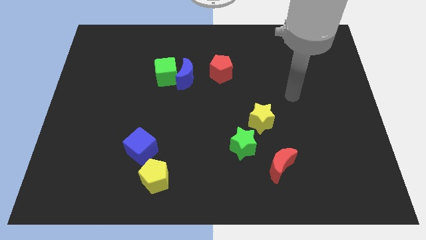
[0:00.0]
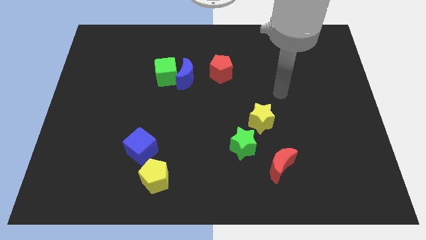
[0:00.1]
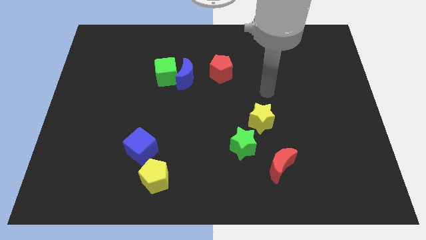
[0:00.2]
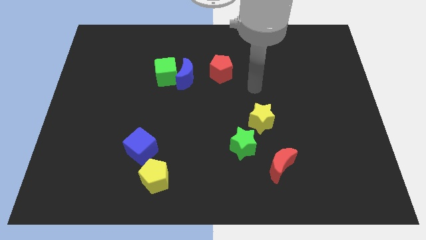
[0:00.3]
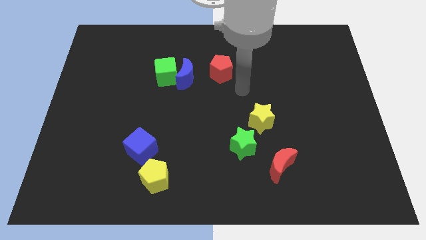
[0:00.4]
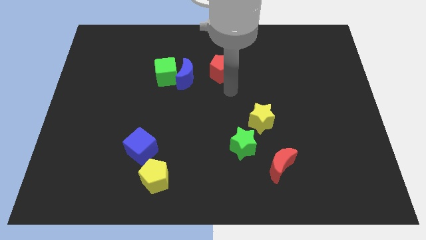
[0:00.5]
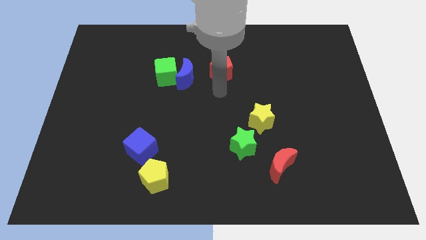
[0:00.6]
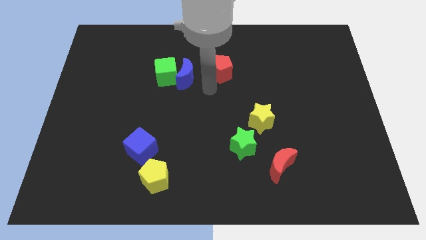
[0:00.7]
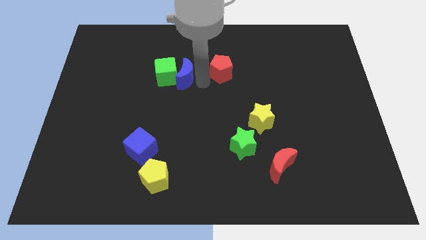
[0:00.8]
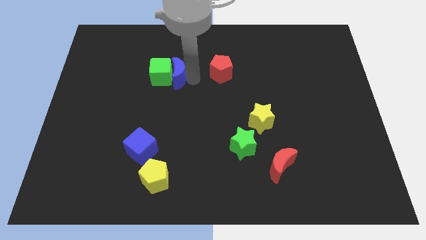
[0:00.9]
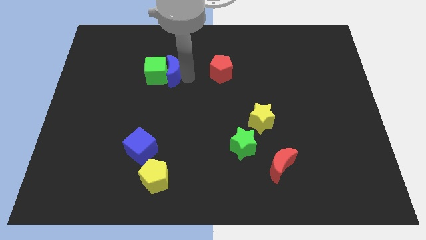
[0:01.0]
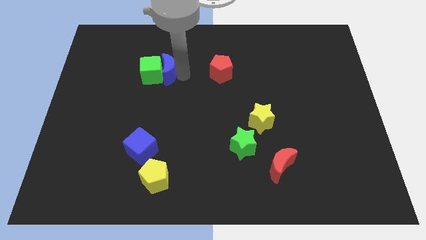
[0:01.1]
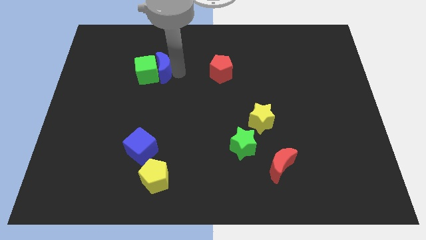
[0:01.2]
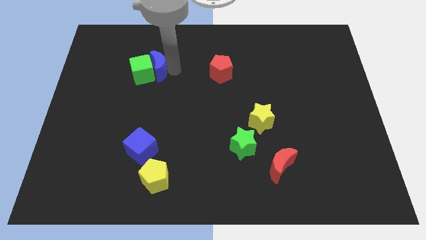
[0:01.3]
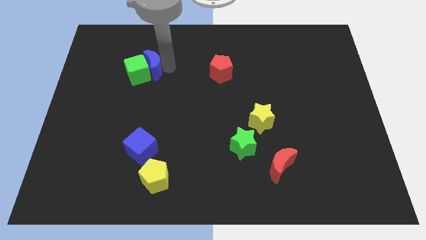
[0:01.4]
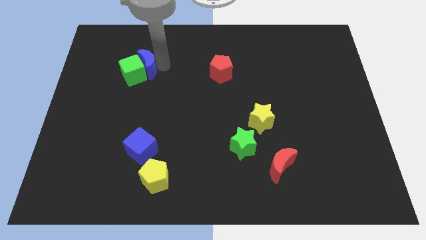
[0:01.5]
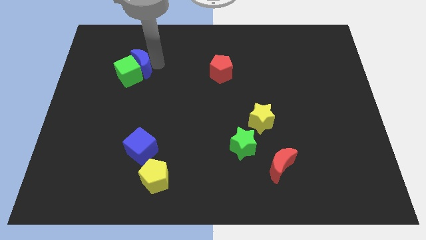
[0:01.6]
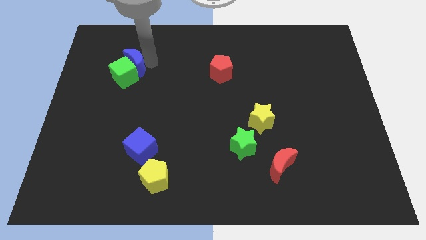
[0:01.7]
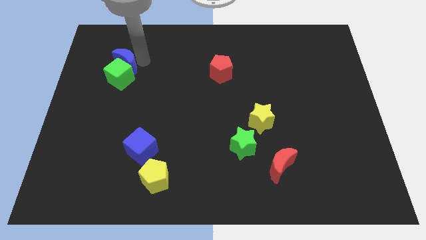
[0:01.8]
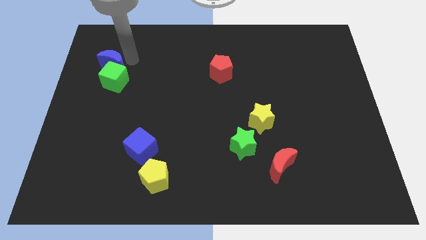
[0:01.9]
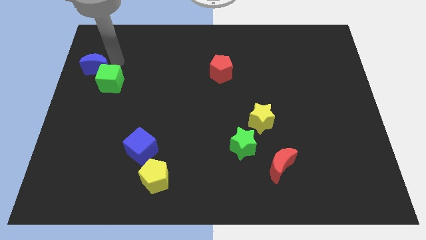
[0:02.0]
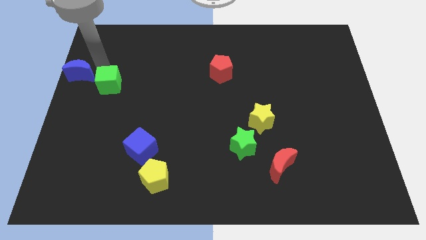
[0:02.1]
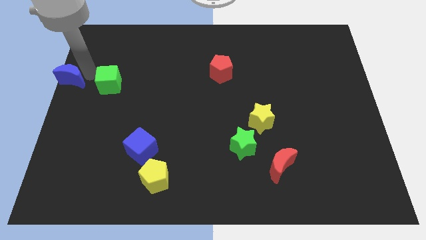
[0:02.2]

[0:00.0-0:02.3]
pull the green cube apart from the blue moon

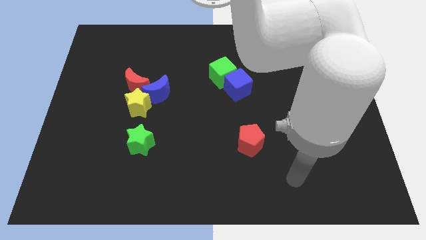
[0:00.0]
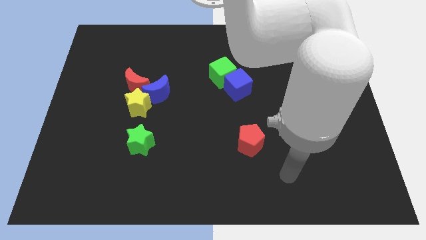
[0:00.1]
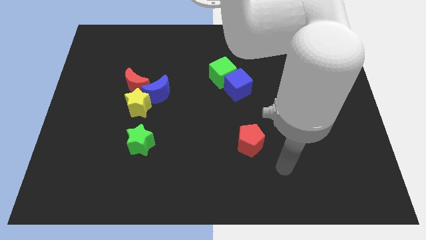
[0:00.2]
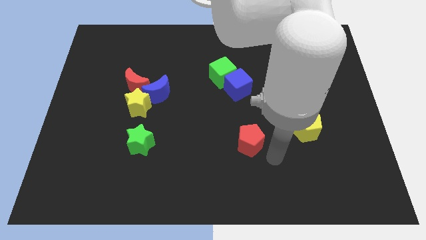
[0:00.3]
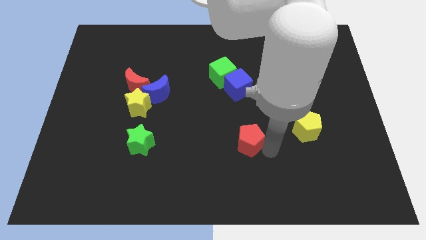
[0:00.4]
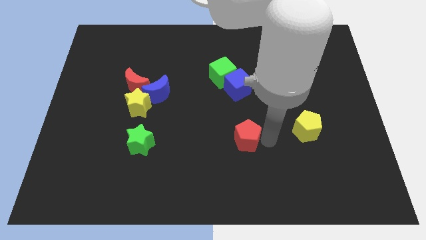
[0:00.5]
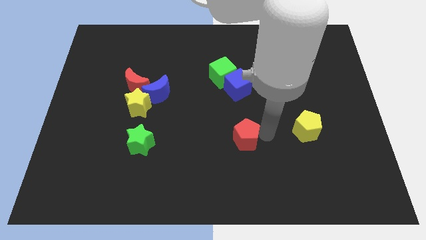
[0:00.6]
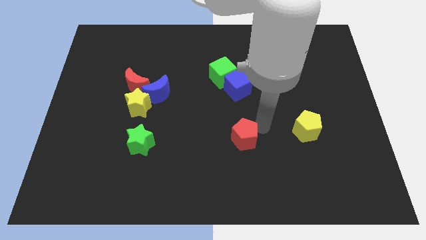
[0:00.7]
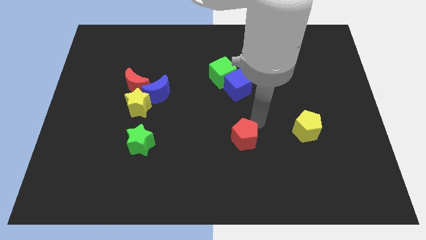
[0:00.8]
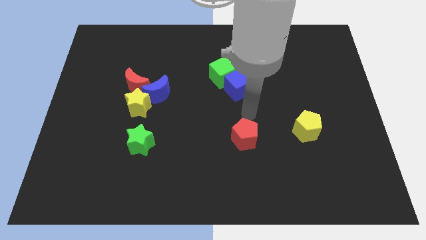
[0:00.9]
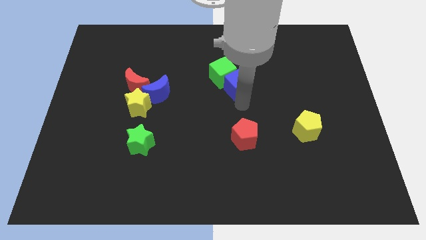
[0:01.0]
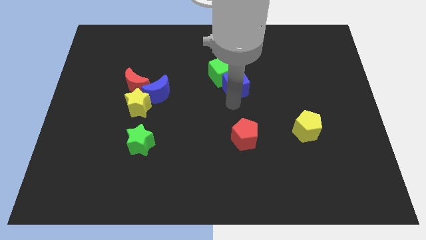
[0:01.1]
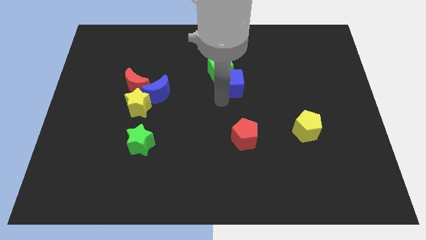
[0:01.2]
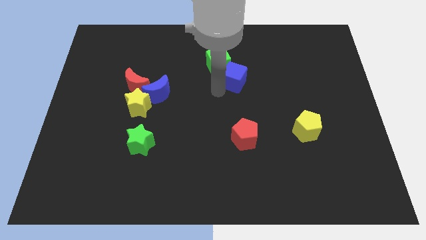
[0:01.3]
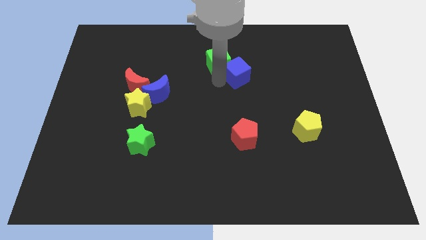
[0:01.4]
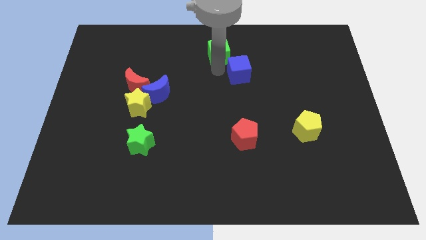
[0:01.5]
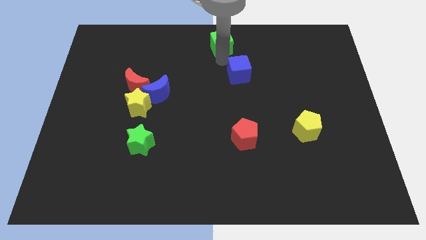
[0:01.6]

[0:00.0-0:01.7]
separate the blue cube from the green cube

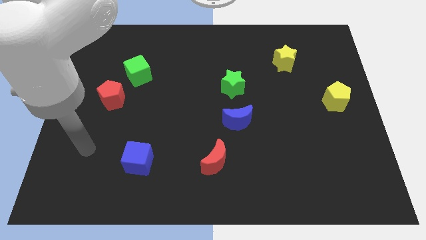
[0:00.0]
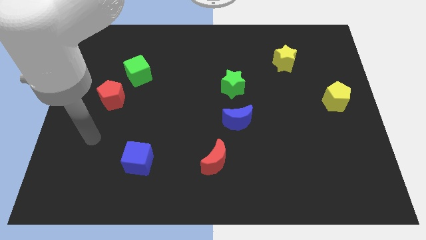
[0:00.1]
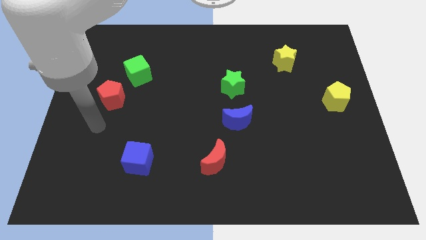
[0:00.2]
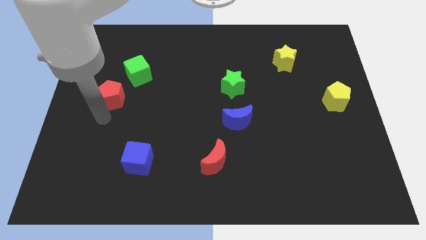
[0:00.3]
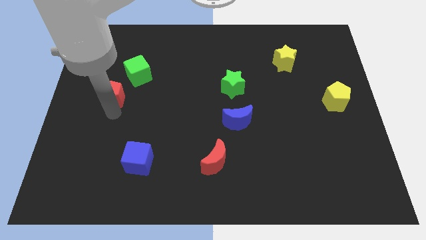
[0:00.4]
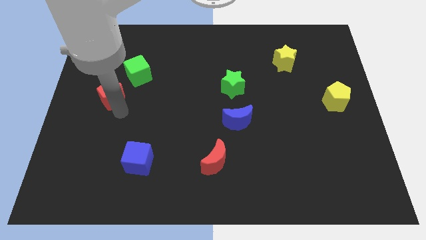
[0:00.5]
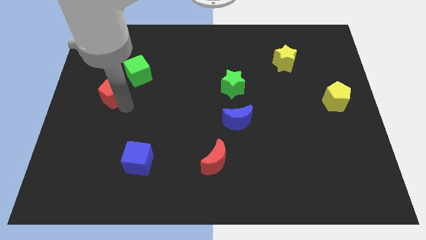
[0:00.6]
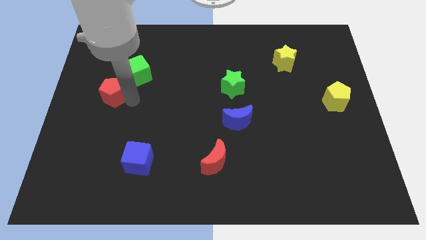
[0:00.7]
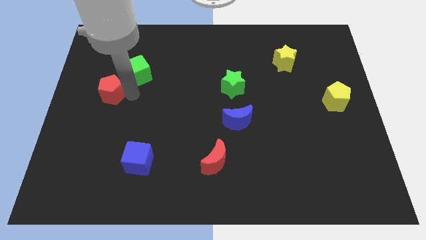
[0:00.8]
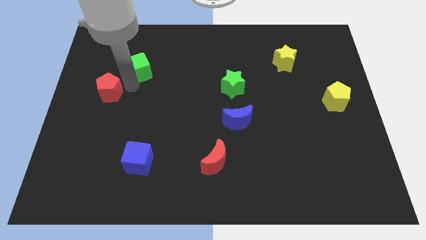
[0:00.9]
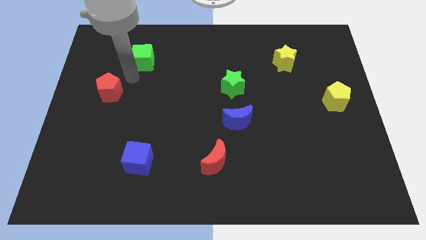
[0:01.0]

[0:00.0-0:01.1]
separate the red pentagon from the green cube

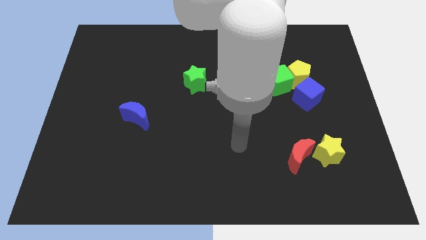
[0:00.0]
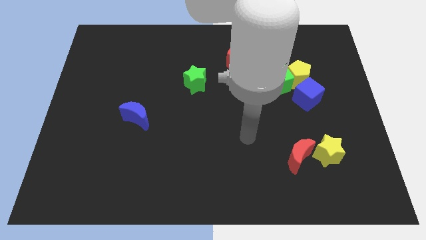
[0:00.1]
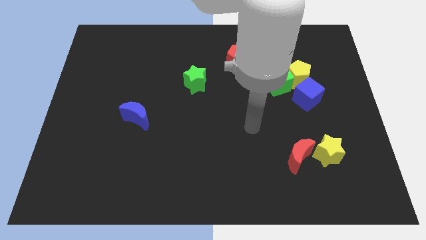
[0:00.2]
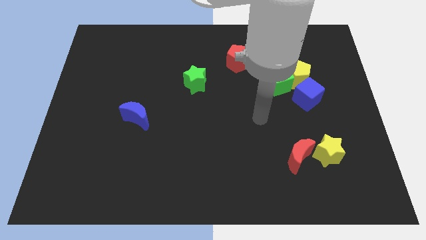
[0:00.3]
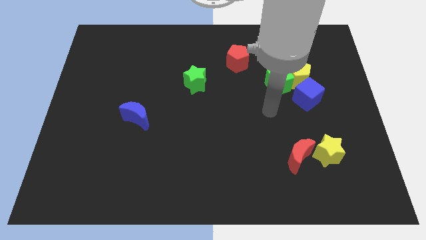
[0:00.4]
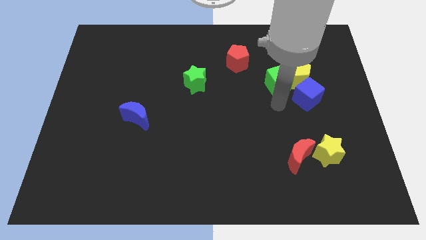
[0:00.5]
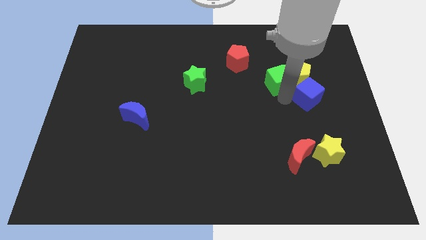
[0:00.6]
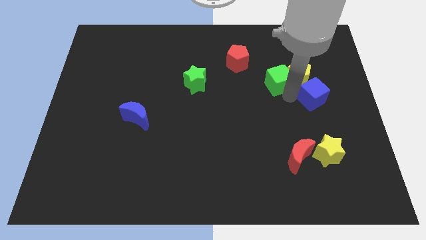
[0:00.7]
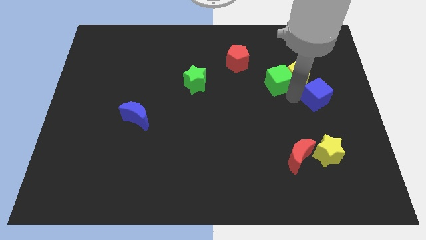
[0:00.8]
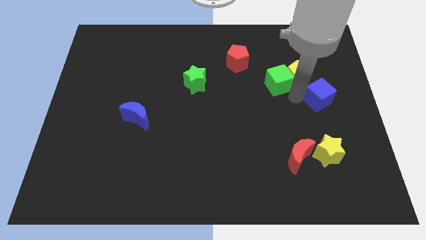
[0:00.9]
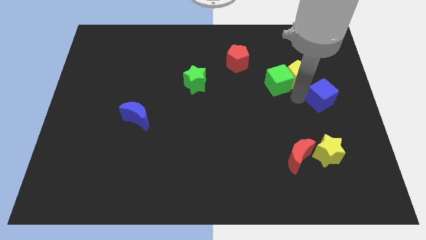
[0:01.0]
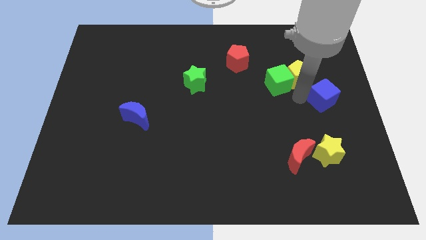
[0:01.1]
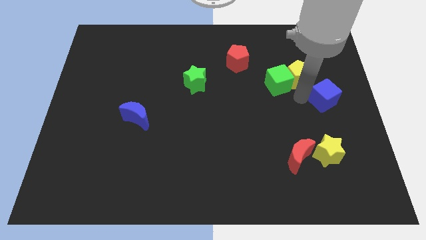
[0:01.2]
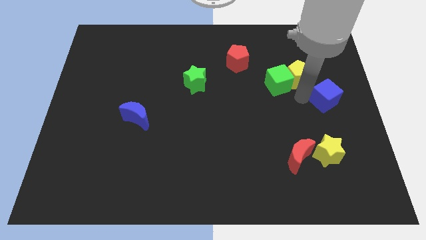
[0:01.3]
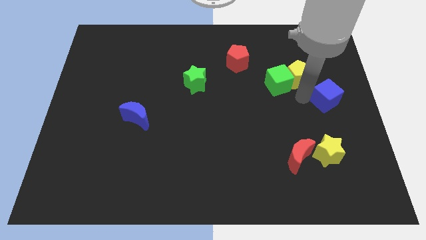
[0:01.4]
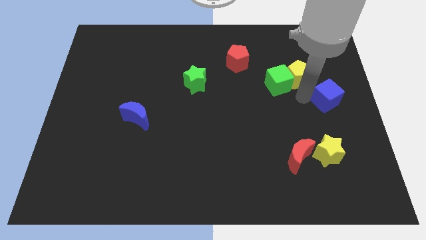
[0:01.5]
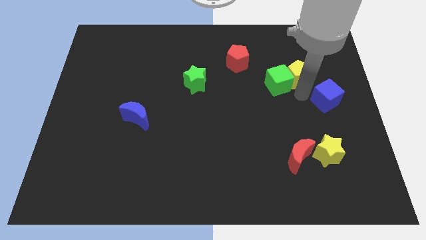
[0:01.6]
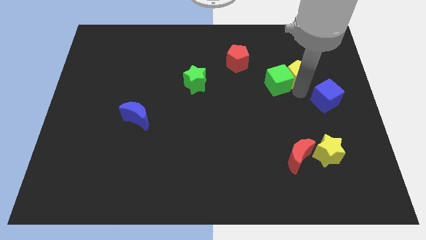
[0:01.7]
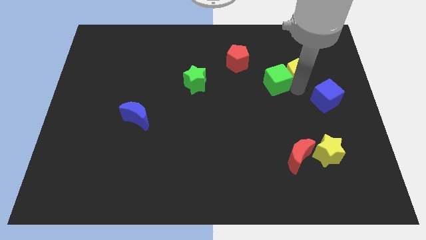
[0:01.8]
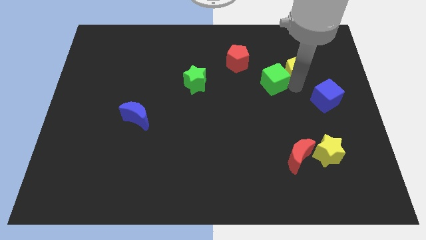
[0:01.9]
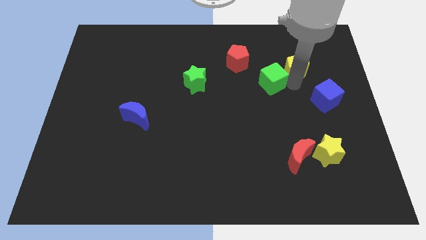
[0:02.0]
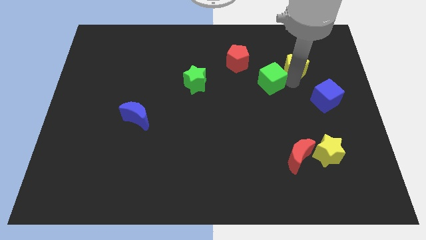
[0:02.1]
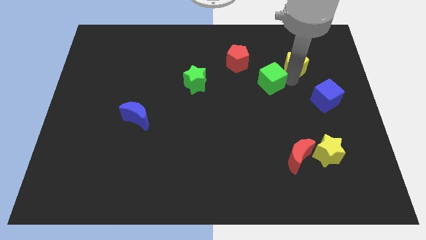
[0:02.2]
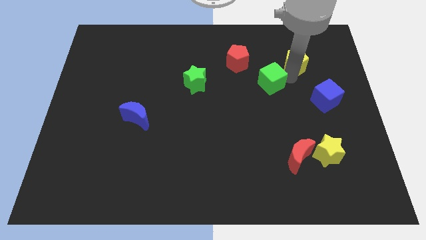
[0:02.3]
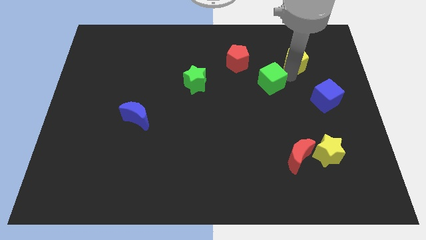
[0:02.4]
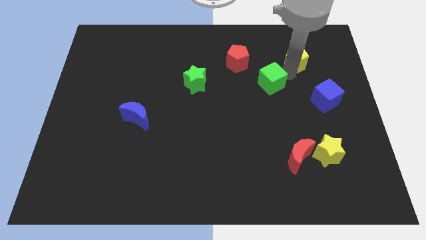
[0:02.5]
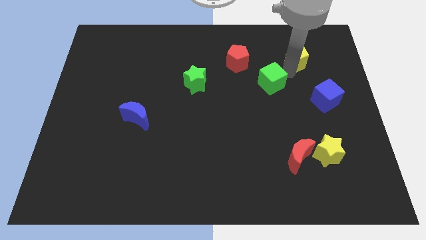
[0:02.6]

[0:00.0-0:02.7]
separate the yellow pentagon from the green cube and blue cube

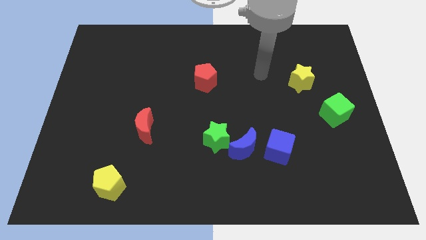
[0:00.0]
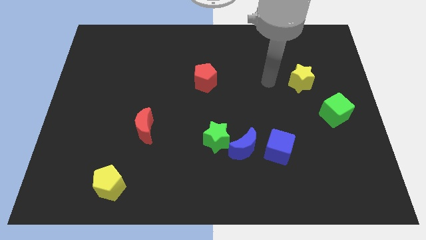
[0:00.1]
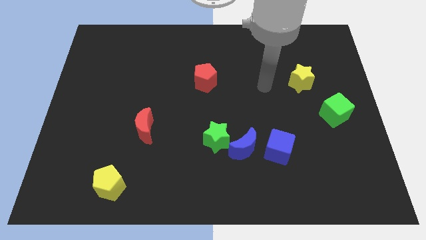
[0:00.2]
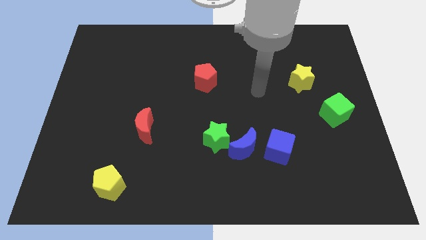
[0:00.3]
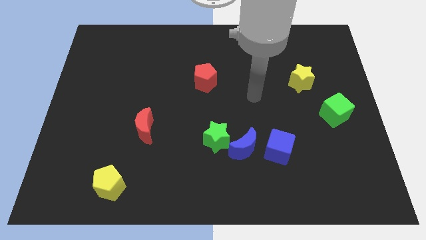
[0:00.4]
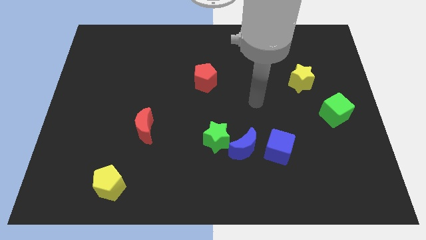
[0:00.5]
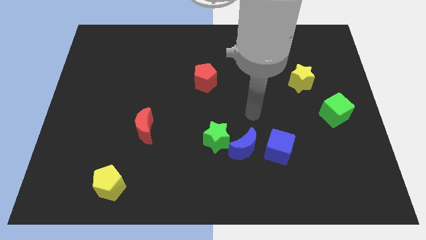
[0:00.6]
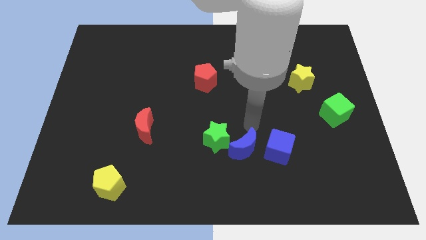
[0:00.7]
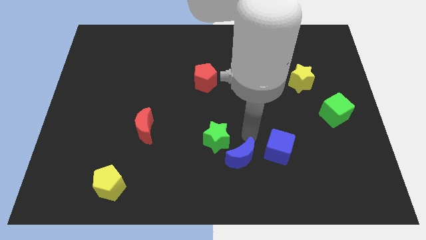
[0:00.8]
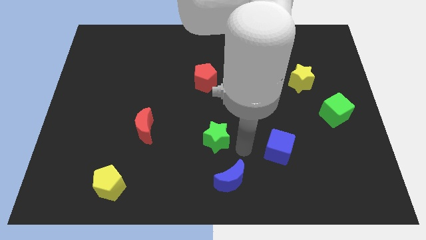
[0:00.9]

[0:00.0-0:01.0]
pull the green star apart from the blue moon

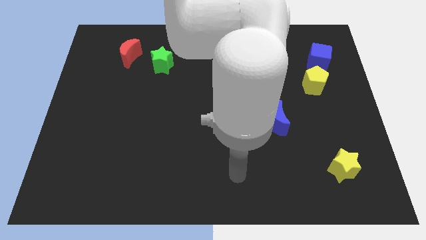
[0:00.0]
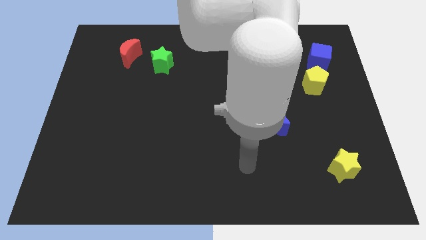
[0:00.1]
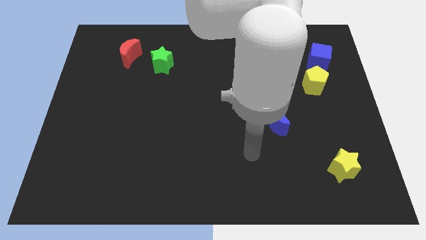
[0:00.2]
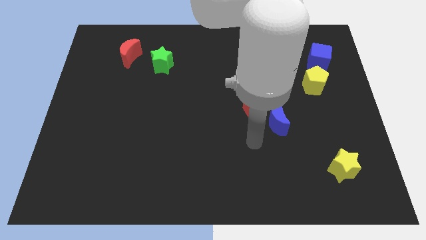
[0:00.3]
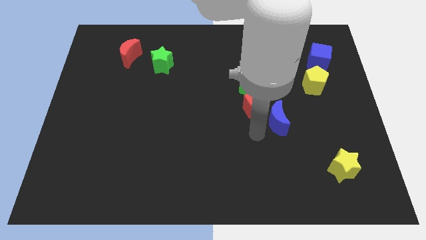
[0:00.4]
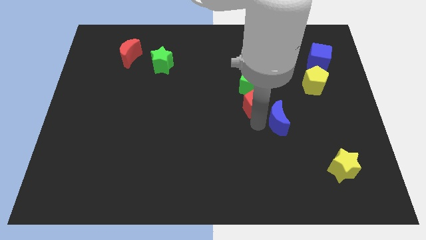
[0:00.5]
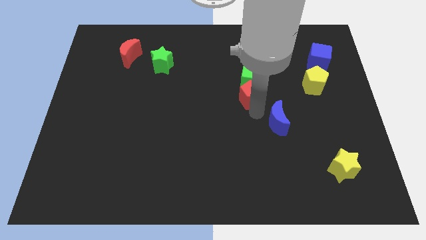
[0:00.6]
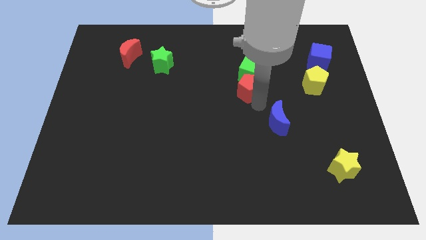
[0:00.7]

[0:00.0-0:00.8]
pull the blue moon apart from the red pentagon
